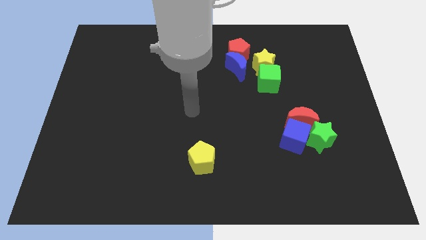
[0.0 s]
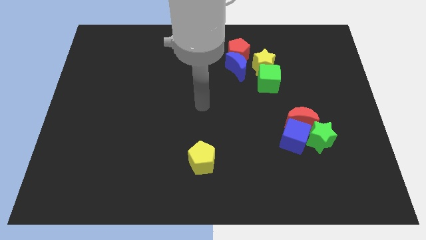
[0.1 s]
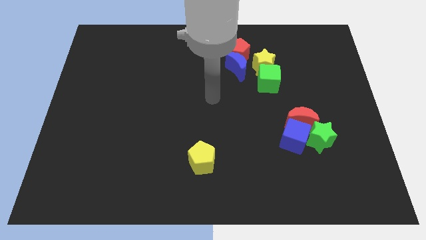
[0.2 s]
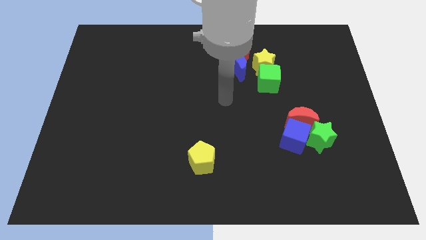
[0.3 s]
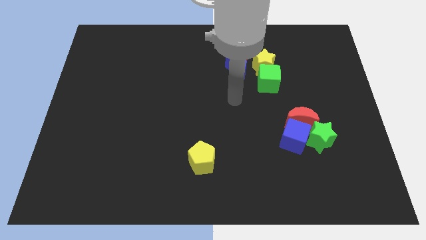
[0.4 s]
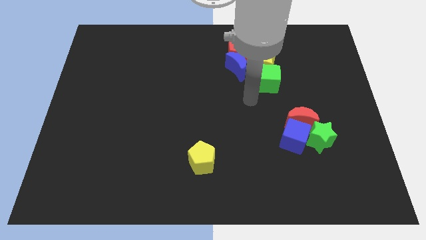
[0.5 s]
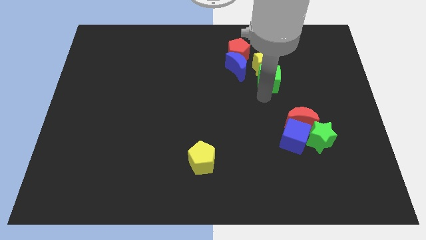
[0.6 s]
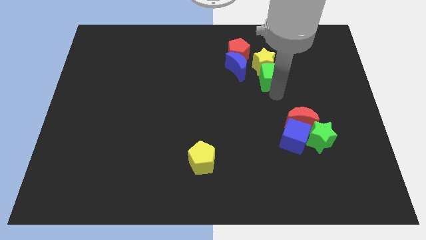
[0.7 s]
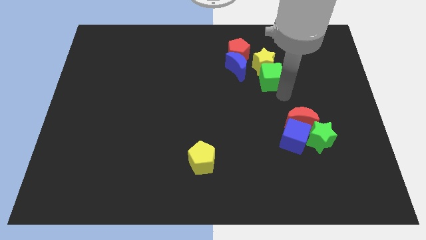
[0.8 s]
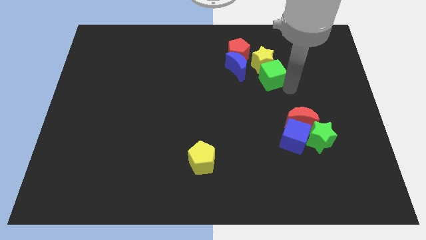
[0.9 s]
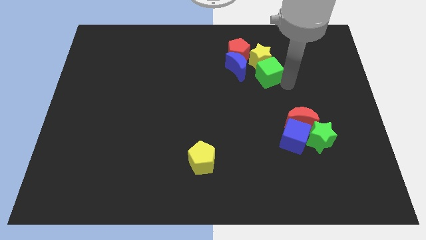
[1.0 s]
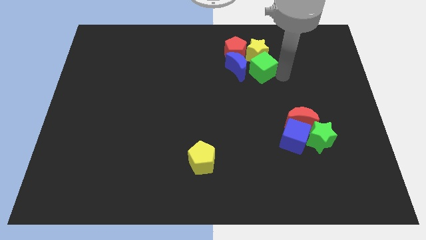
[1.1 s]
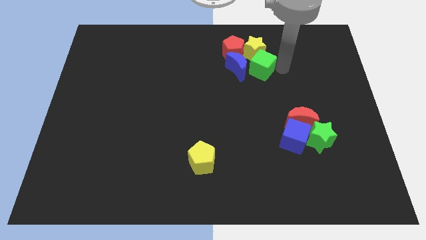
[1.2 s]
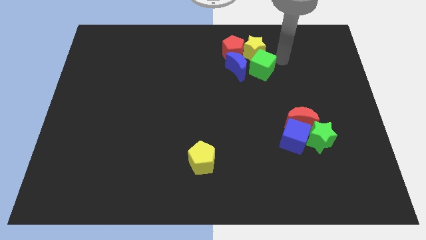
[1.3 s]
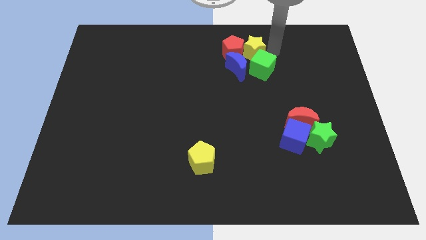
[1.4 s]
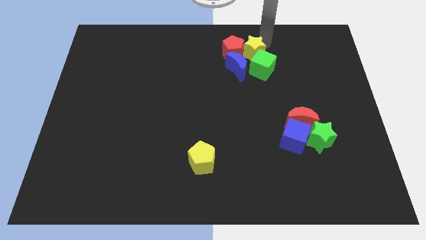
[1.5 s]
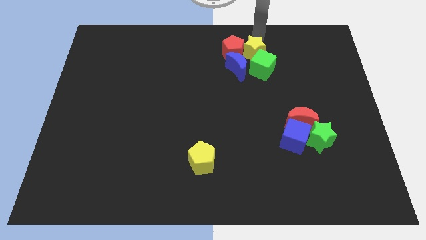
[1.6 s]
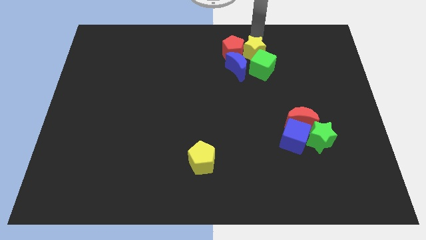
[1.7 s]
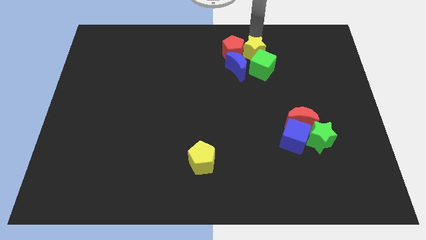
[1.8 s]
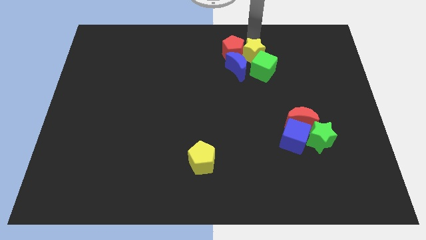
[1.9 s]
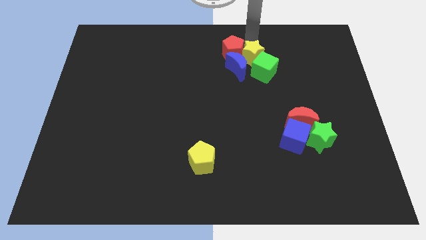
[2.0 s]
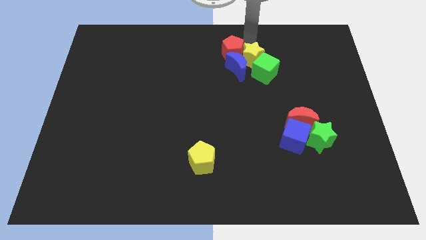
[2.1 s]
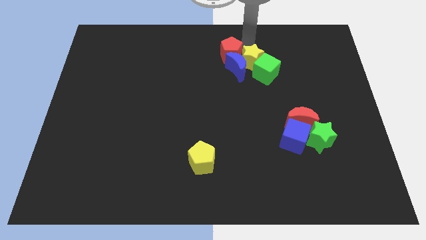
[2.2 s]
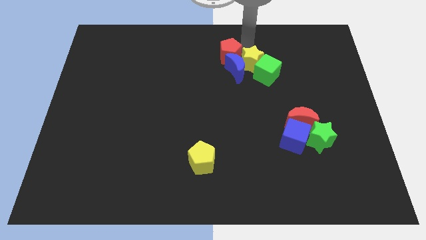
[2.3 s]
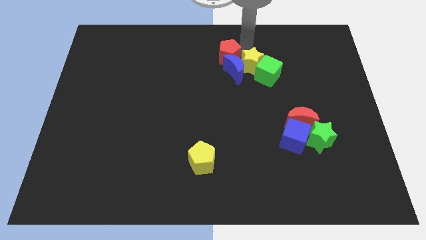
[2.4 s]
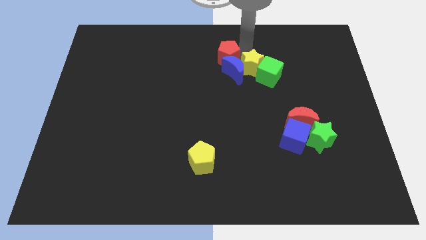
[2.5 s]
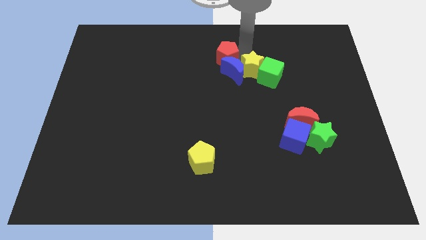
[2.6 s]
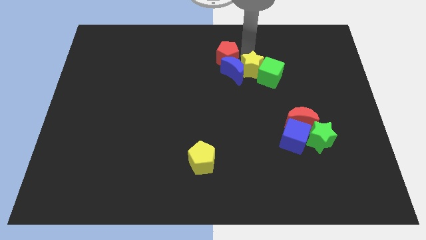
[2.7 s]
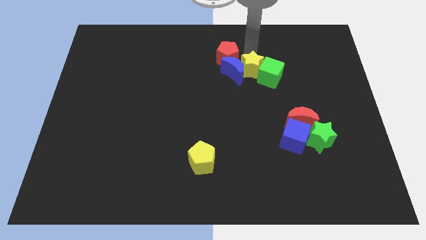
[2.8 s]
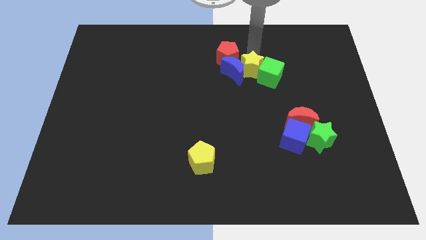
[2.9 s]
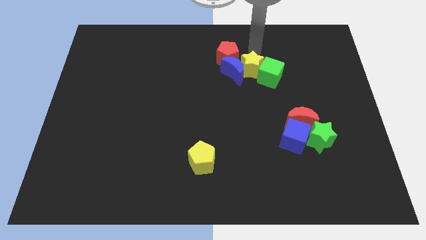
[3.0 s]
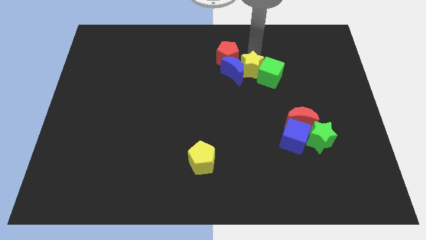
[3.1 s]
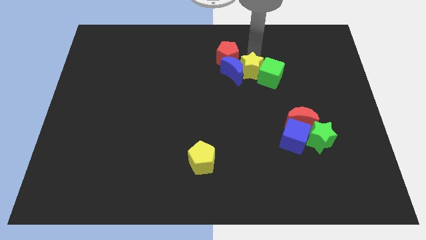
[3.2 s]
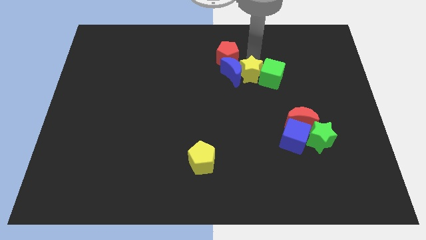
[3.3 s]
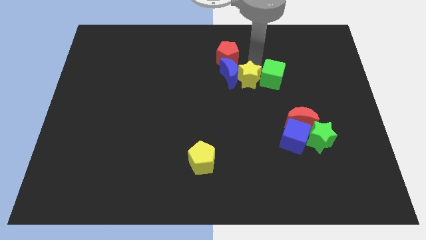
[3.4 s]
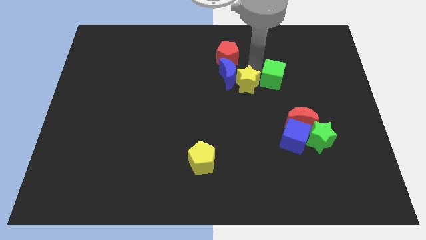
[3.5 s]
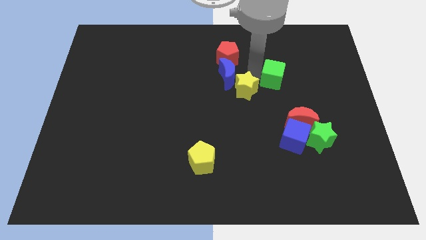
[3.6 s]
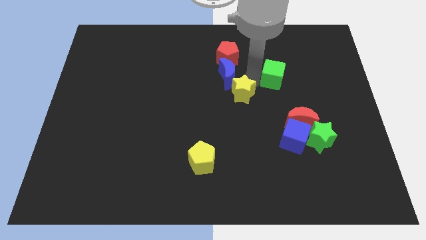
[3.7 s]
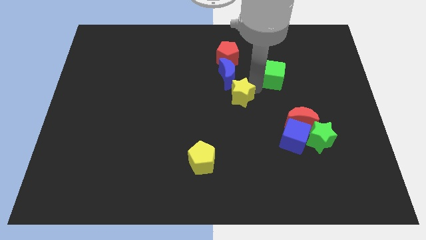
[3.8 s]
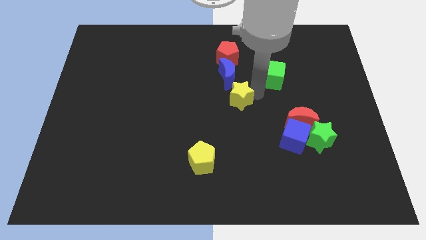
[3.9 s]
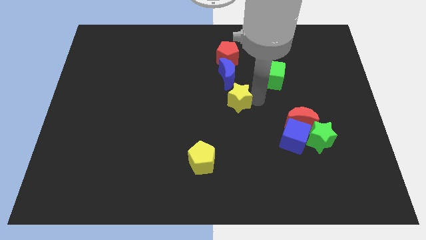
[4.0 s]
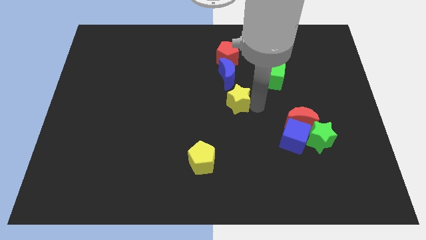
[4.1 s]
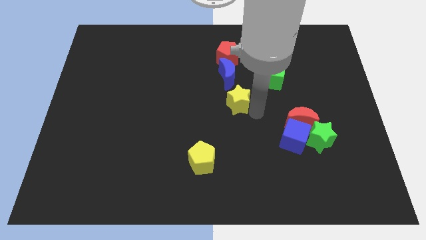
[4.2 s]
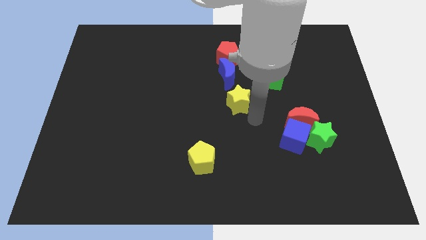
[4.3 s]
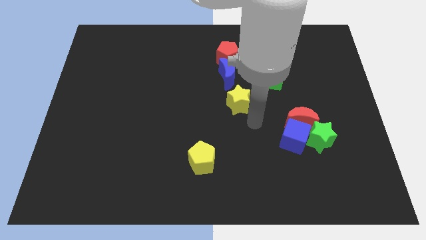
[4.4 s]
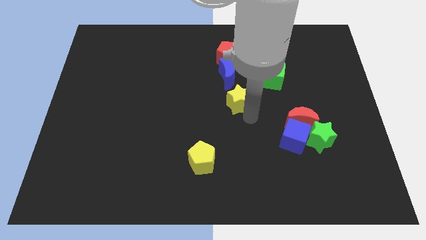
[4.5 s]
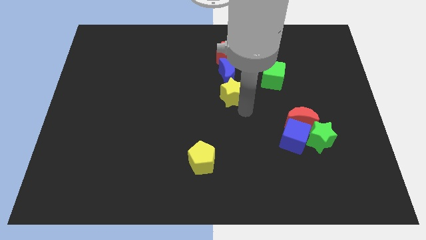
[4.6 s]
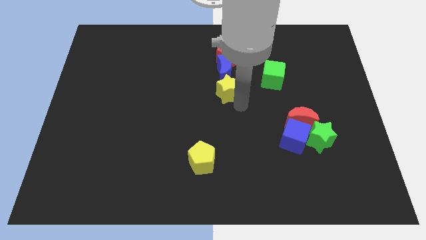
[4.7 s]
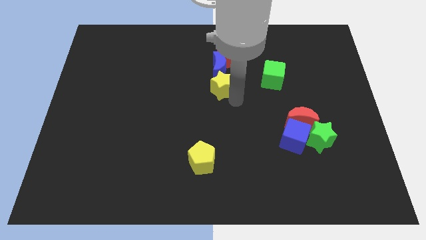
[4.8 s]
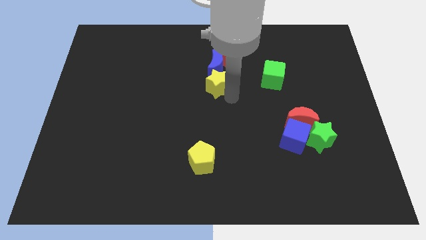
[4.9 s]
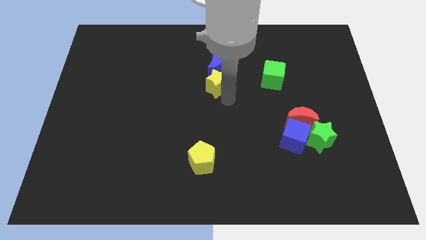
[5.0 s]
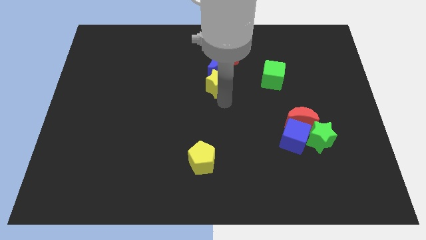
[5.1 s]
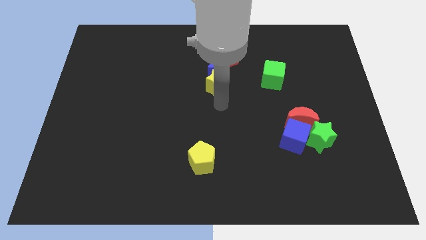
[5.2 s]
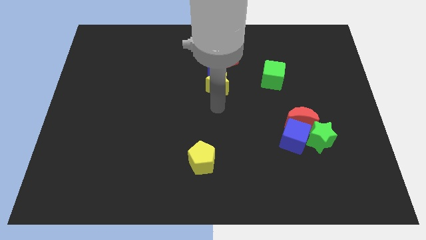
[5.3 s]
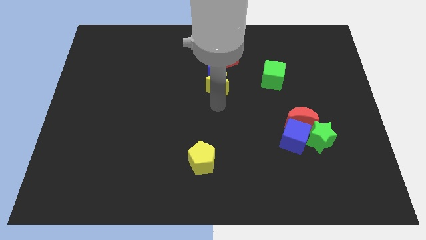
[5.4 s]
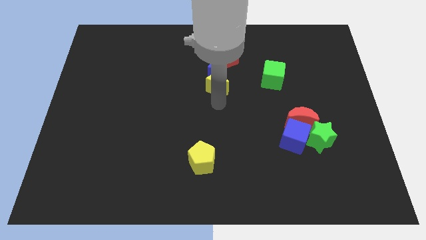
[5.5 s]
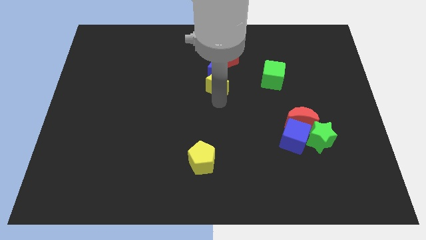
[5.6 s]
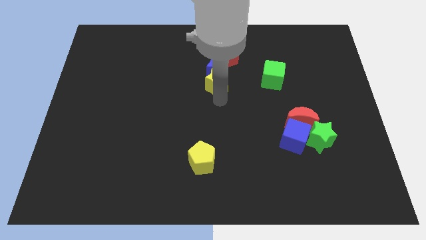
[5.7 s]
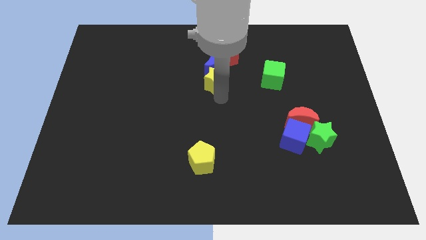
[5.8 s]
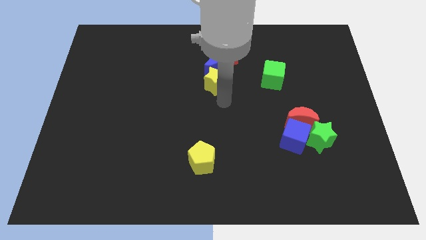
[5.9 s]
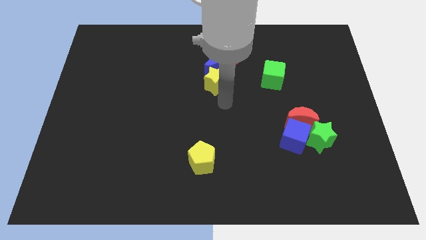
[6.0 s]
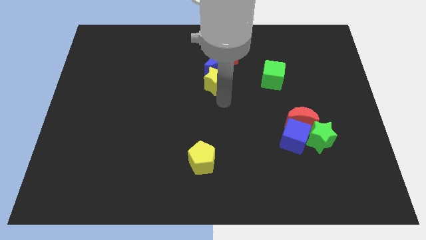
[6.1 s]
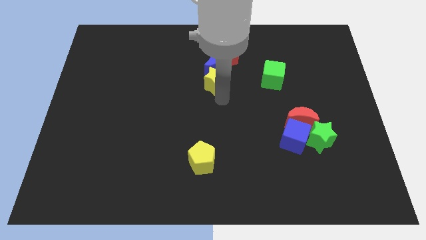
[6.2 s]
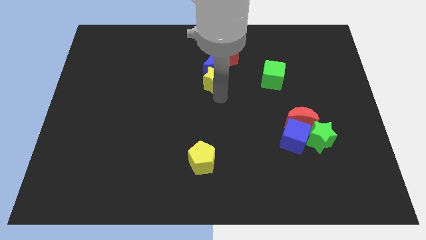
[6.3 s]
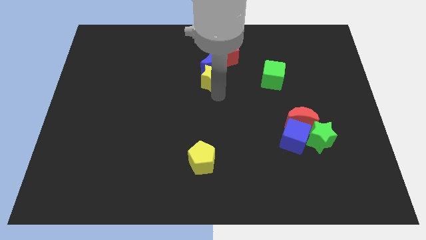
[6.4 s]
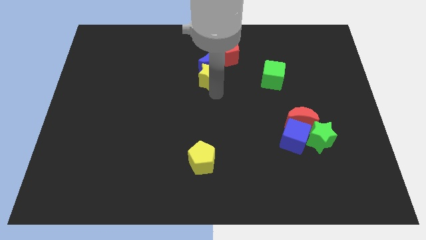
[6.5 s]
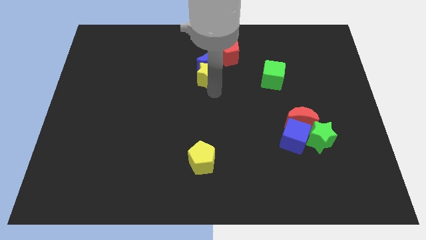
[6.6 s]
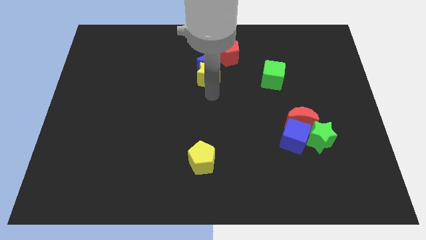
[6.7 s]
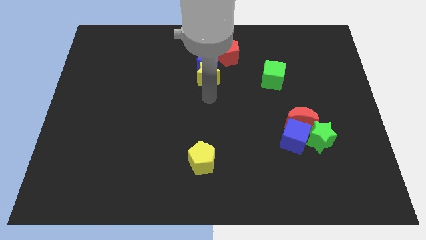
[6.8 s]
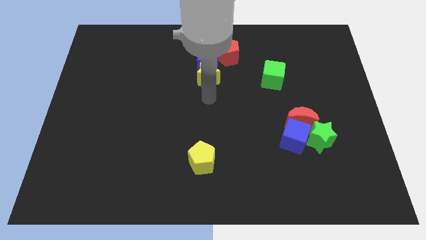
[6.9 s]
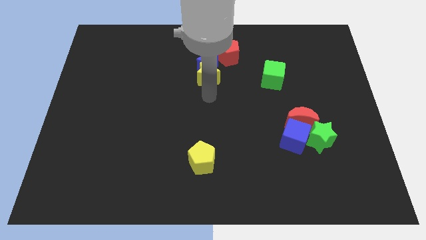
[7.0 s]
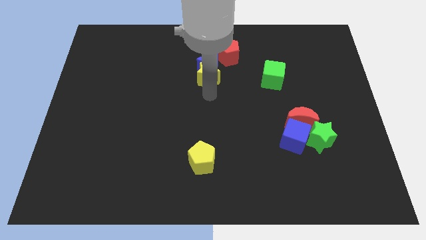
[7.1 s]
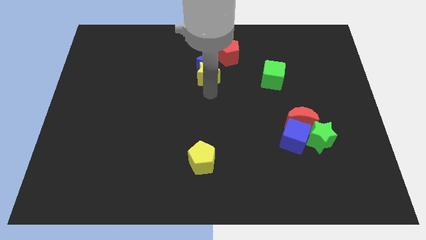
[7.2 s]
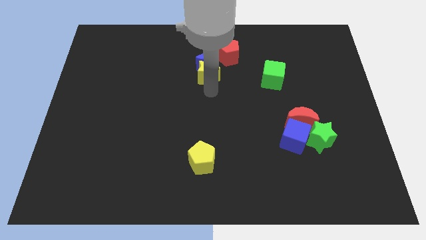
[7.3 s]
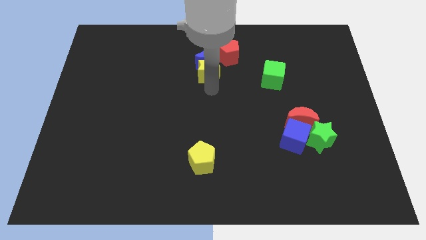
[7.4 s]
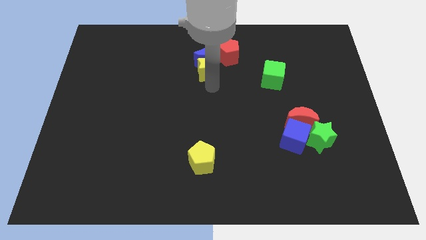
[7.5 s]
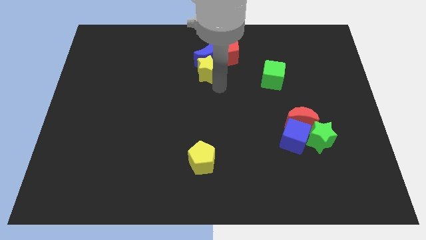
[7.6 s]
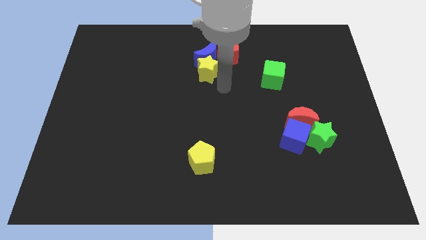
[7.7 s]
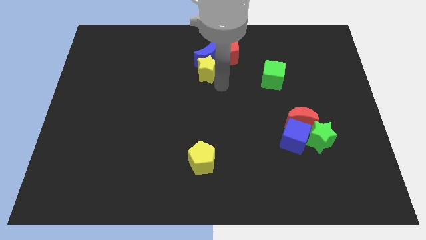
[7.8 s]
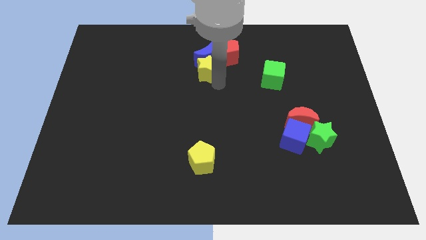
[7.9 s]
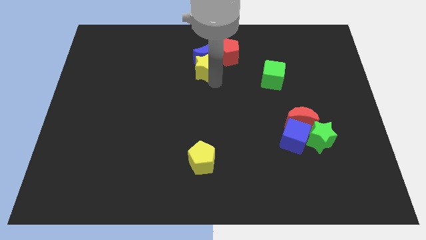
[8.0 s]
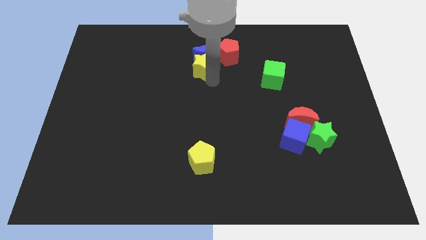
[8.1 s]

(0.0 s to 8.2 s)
slide the yellow star to the left of the red pentagon
